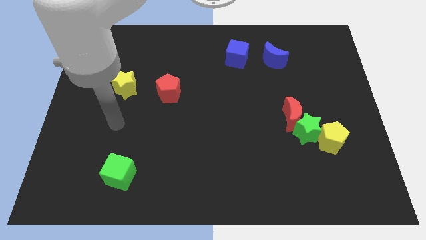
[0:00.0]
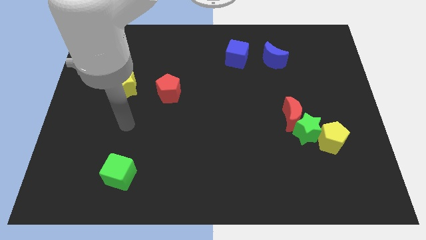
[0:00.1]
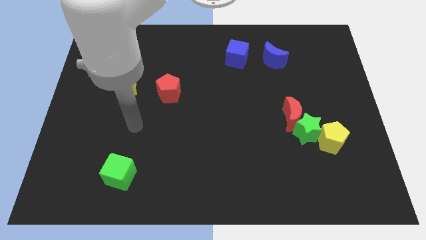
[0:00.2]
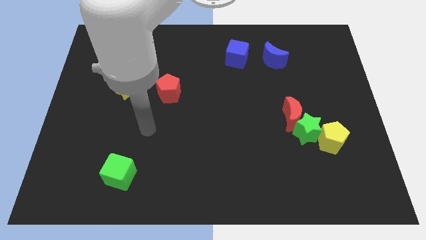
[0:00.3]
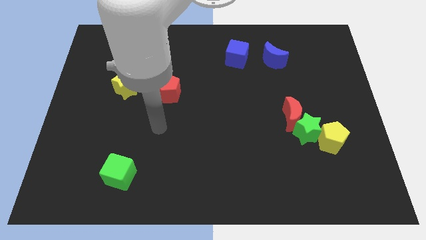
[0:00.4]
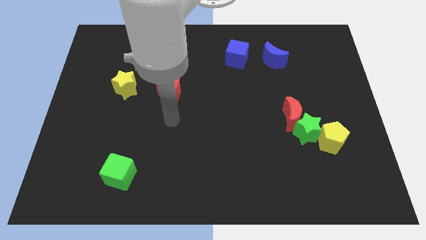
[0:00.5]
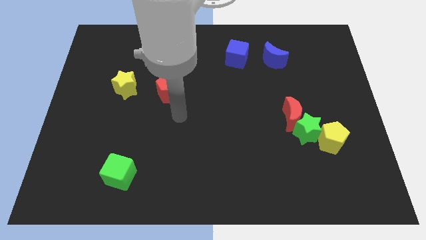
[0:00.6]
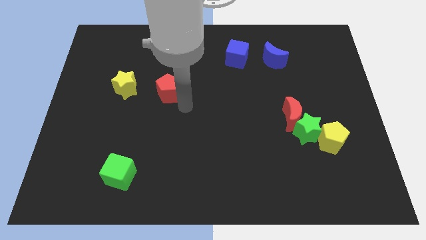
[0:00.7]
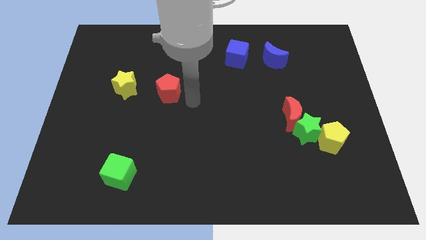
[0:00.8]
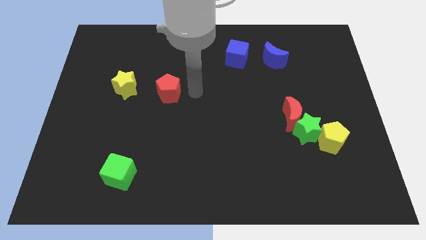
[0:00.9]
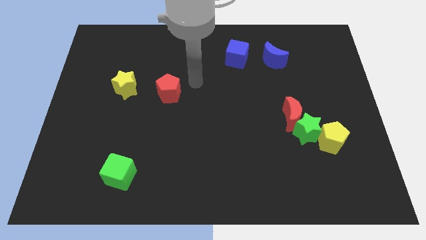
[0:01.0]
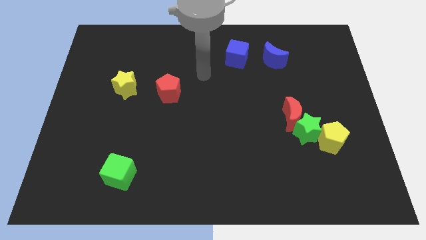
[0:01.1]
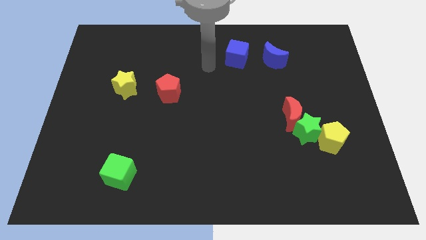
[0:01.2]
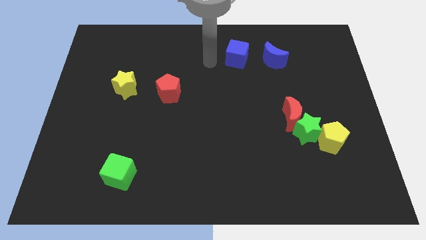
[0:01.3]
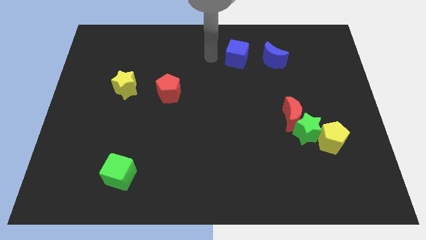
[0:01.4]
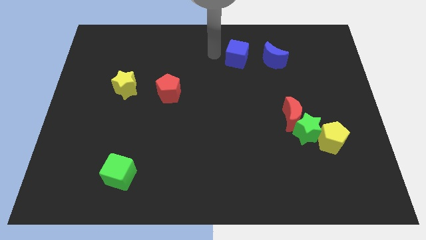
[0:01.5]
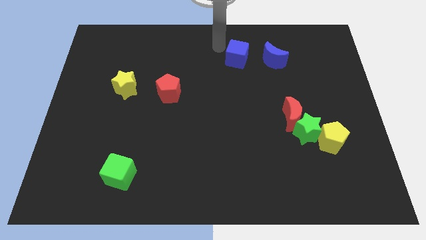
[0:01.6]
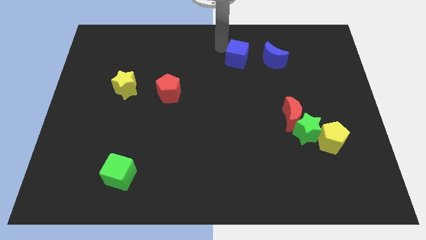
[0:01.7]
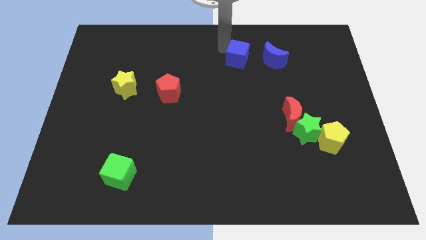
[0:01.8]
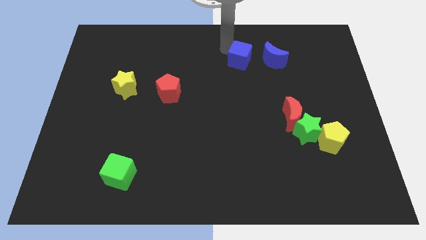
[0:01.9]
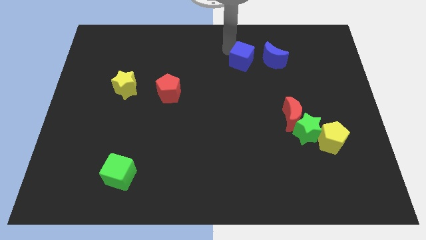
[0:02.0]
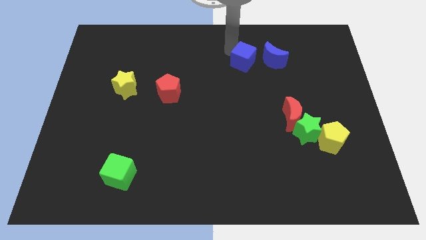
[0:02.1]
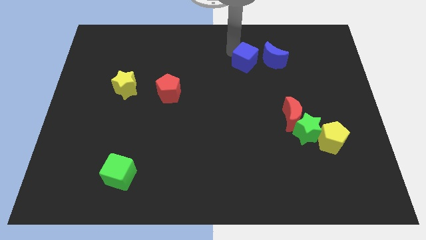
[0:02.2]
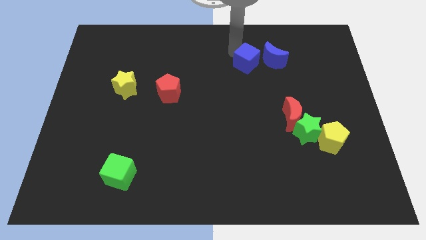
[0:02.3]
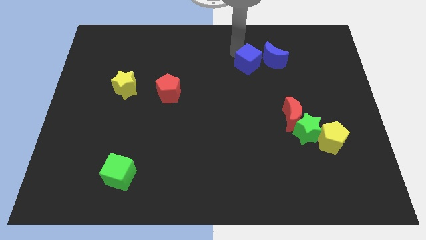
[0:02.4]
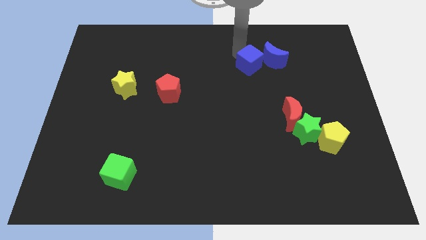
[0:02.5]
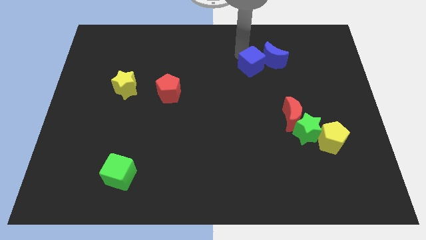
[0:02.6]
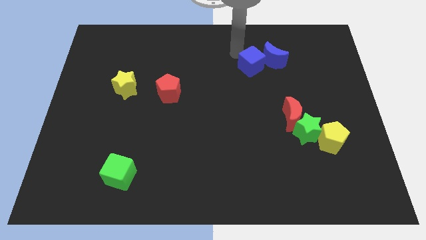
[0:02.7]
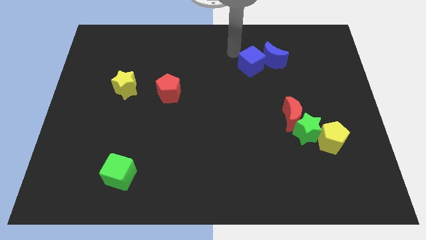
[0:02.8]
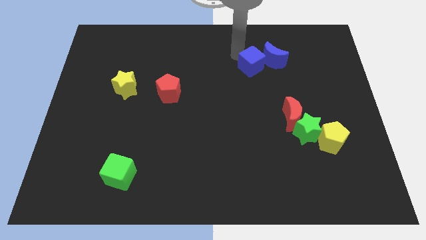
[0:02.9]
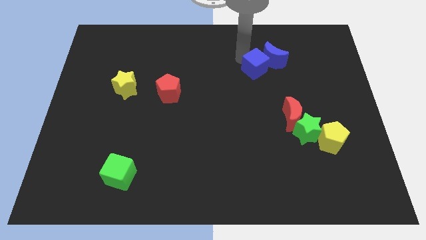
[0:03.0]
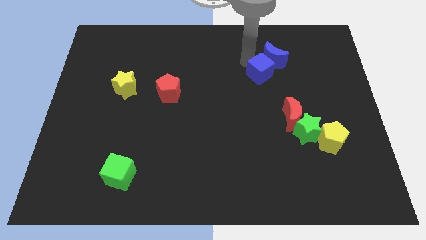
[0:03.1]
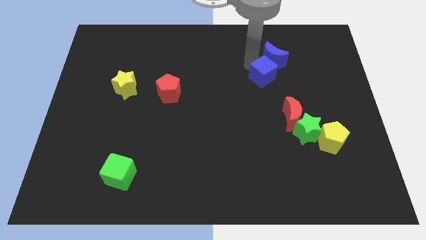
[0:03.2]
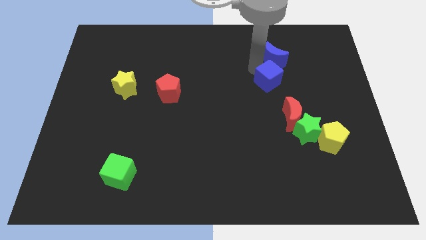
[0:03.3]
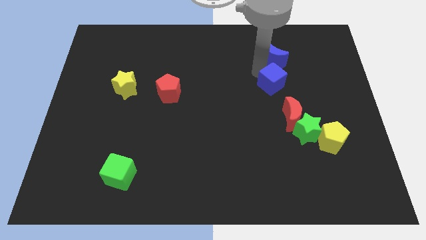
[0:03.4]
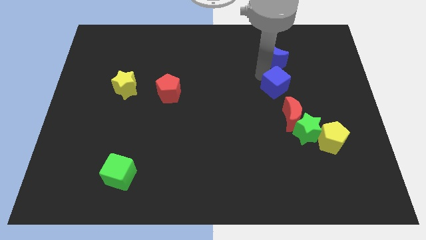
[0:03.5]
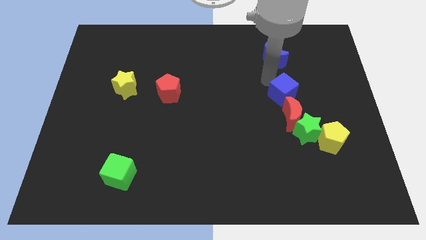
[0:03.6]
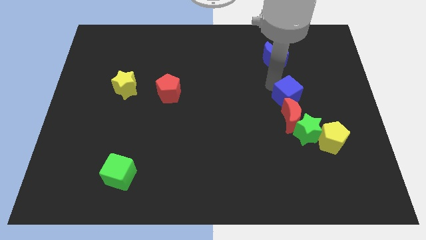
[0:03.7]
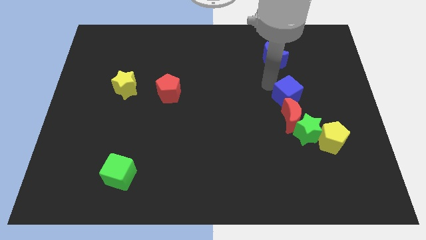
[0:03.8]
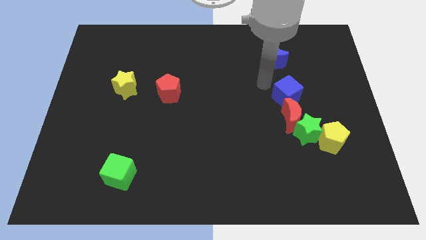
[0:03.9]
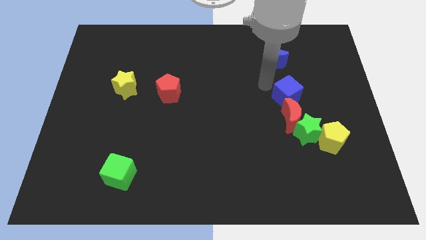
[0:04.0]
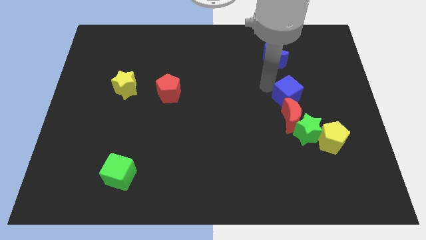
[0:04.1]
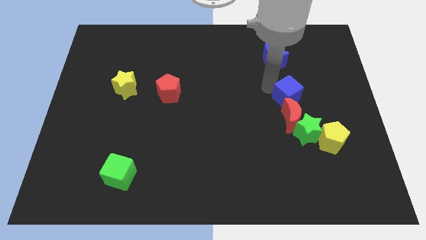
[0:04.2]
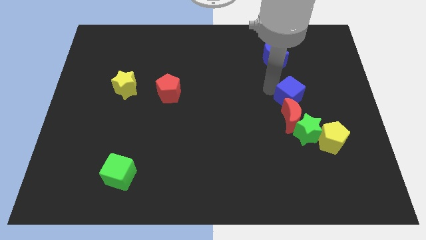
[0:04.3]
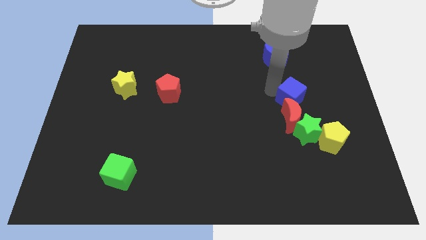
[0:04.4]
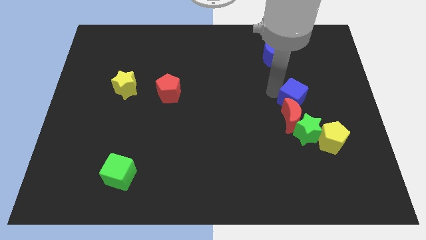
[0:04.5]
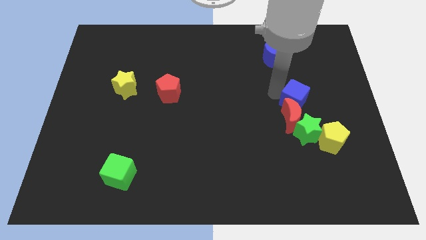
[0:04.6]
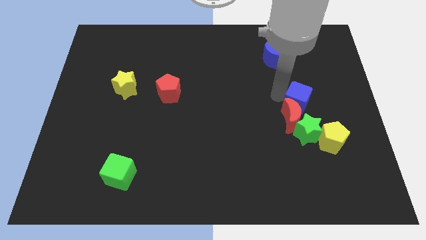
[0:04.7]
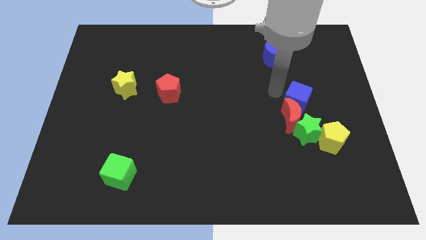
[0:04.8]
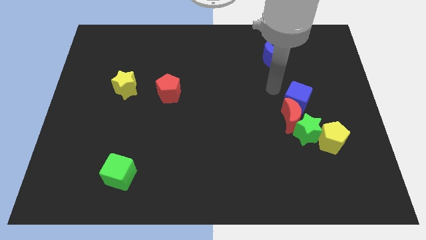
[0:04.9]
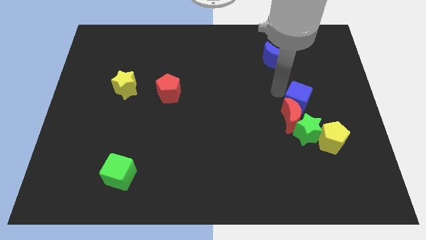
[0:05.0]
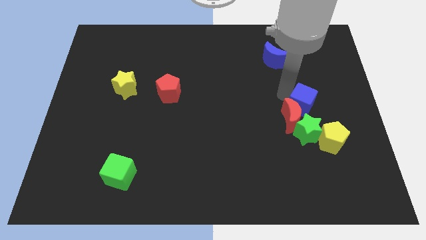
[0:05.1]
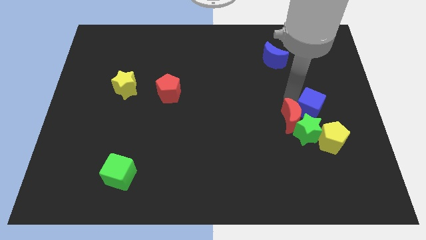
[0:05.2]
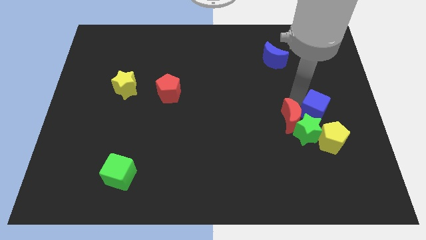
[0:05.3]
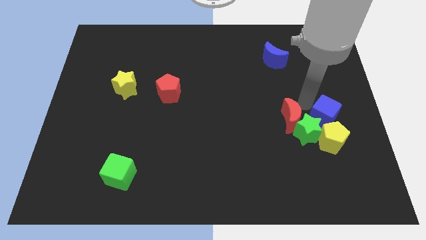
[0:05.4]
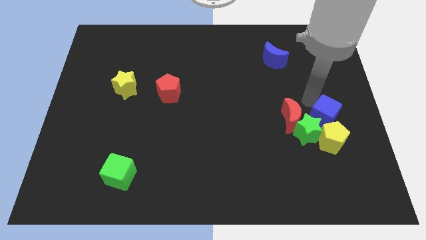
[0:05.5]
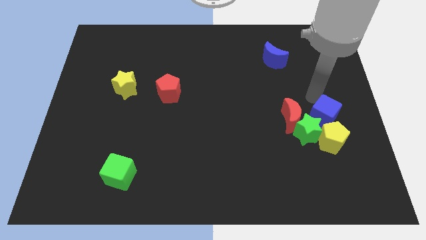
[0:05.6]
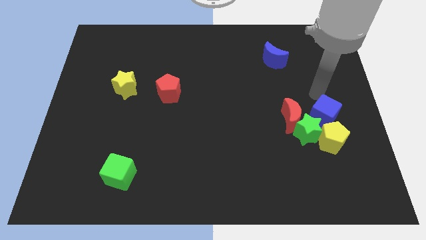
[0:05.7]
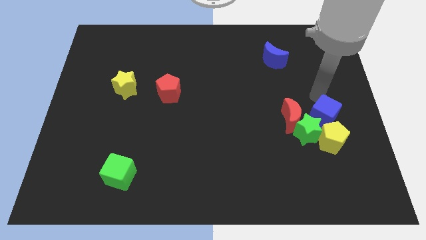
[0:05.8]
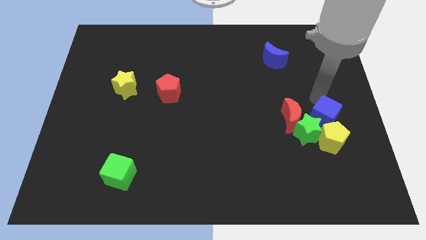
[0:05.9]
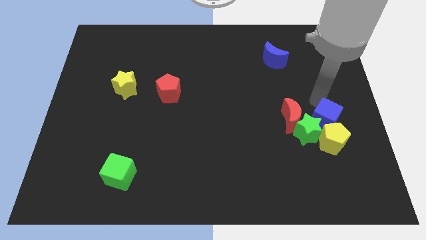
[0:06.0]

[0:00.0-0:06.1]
push the blue cube to the yellow pentagon

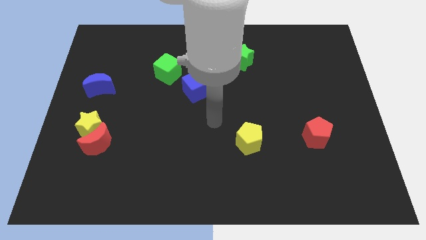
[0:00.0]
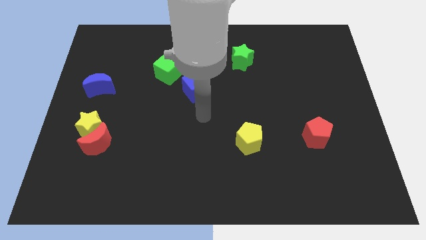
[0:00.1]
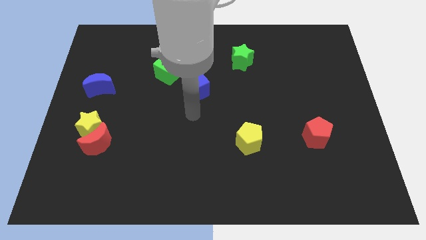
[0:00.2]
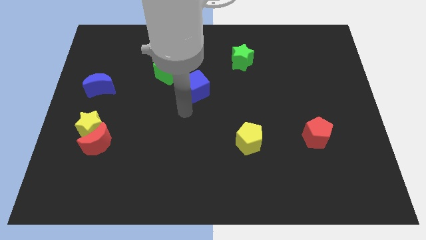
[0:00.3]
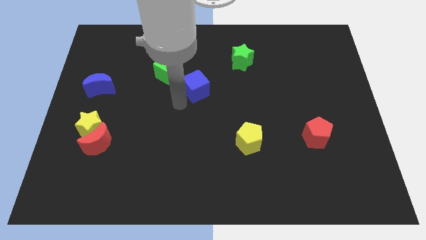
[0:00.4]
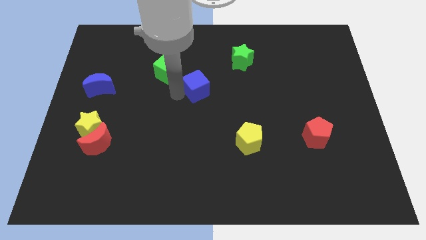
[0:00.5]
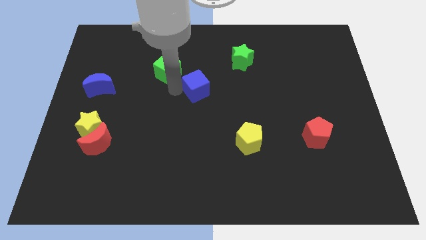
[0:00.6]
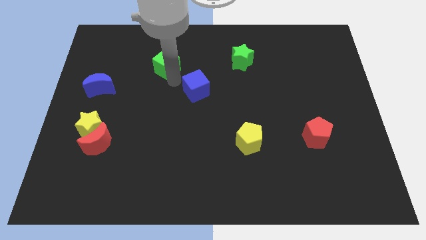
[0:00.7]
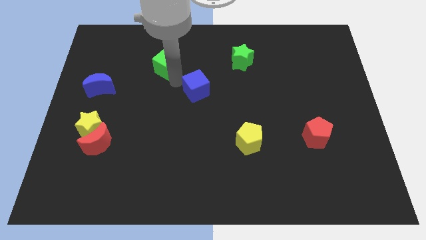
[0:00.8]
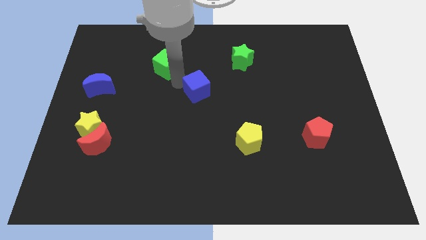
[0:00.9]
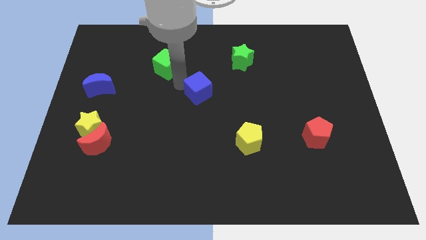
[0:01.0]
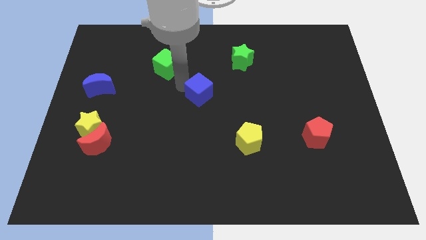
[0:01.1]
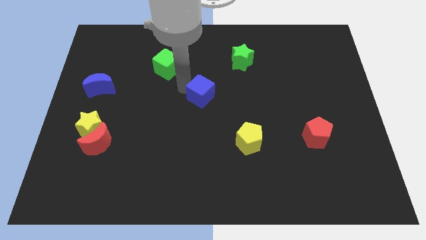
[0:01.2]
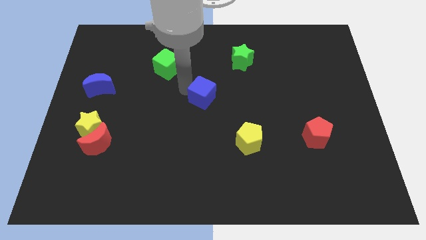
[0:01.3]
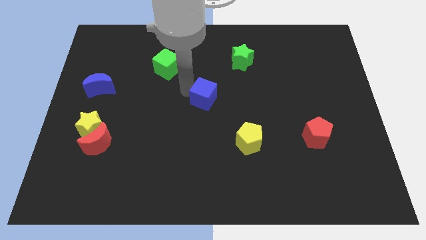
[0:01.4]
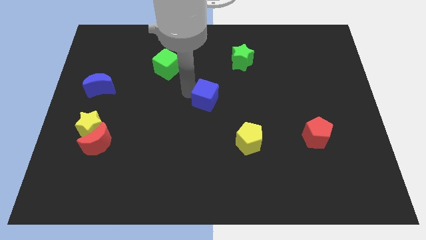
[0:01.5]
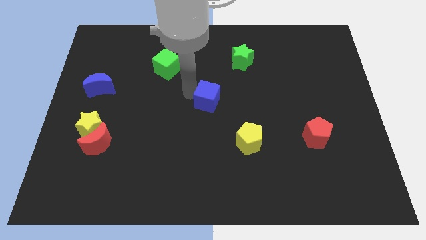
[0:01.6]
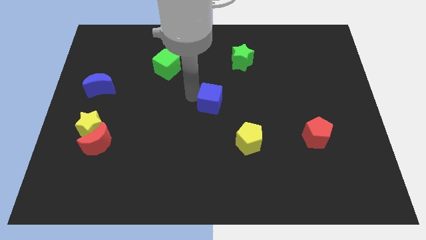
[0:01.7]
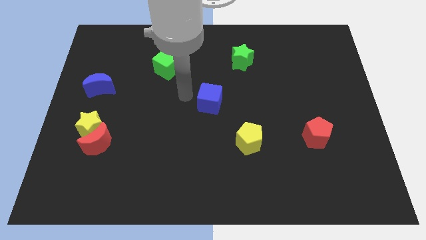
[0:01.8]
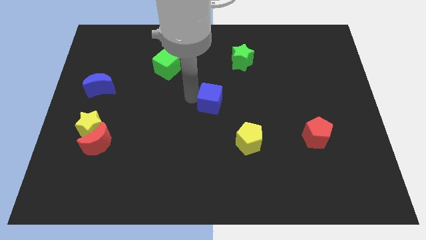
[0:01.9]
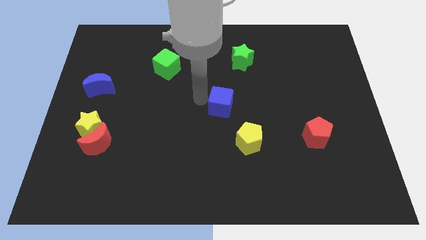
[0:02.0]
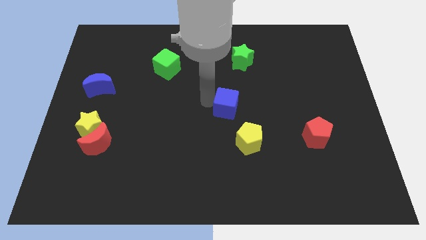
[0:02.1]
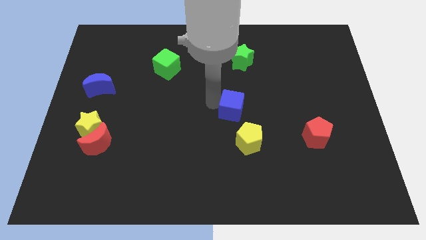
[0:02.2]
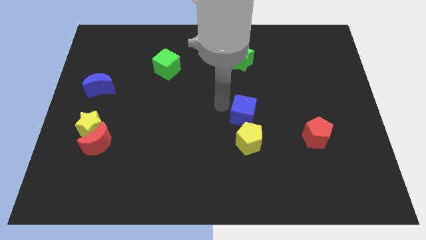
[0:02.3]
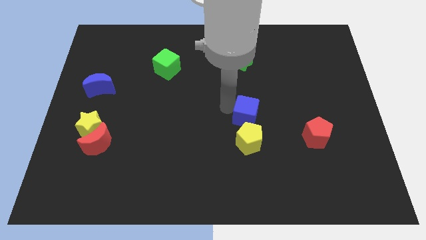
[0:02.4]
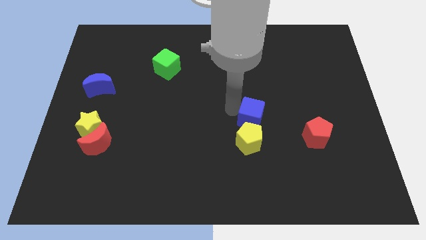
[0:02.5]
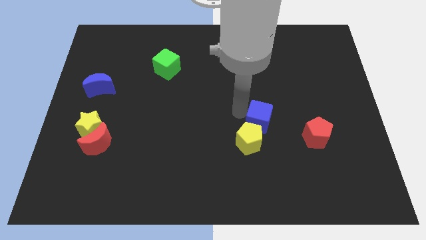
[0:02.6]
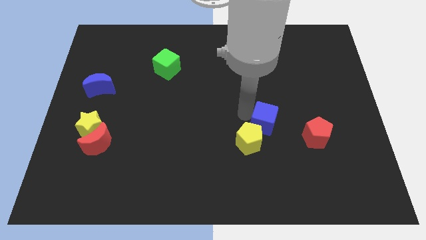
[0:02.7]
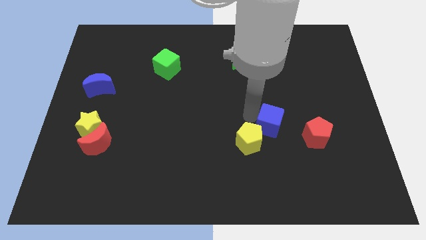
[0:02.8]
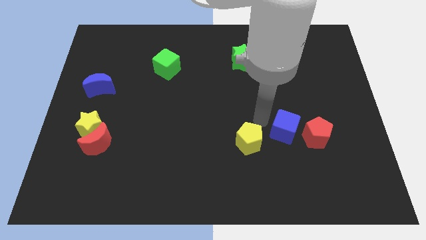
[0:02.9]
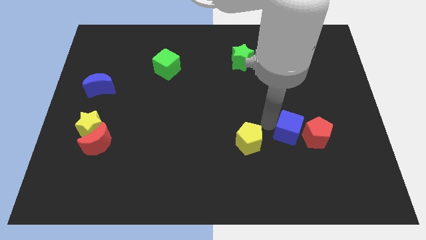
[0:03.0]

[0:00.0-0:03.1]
move the blue cube to the red pentagon
